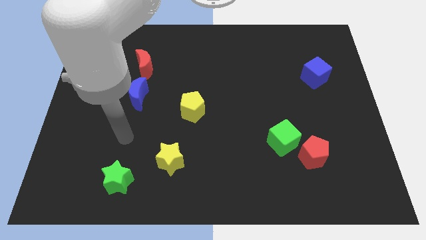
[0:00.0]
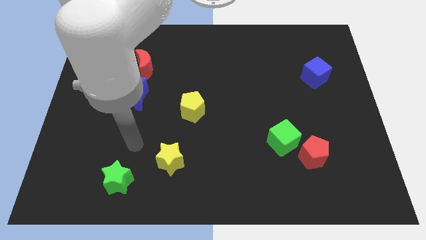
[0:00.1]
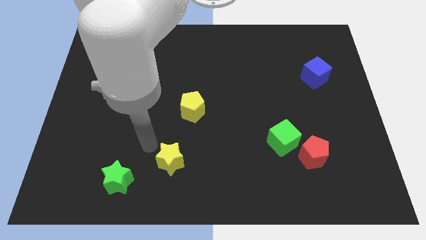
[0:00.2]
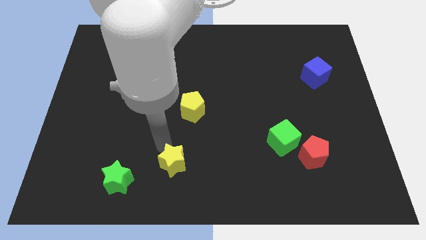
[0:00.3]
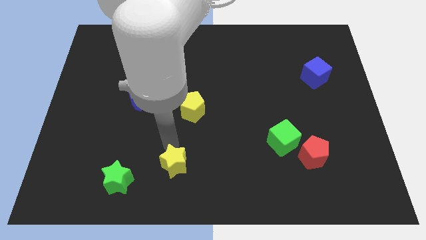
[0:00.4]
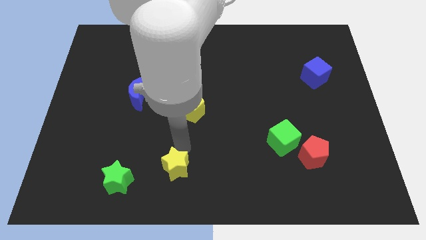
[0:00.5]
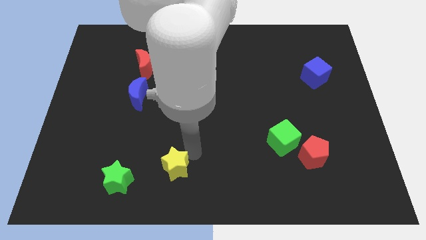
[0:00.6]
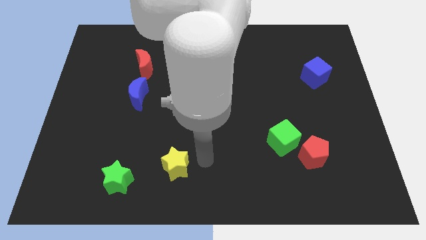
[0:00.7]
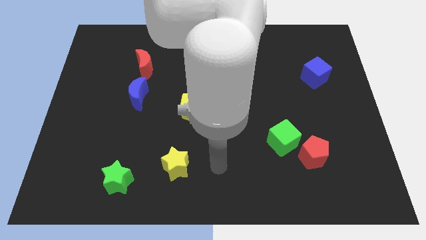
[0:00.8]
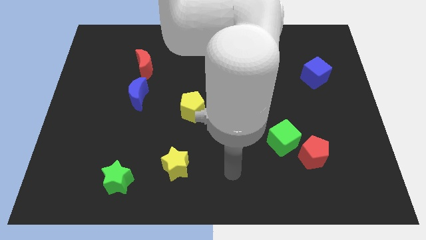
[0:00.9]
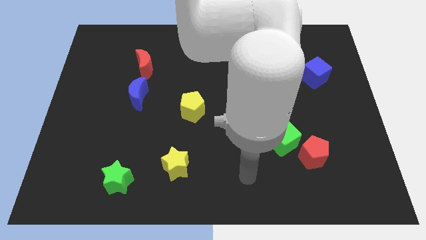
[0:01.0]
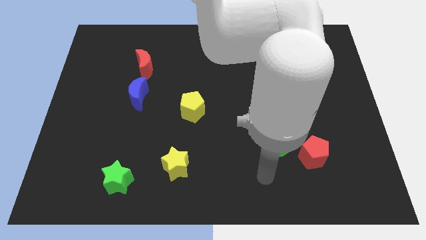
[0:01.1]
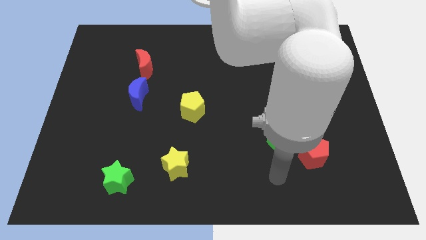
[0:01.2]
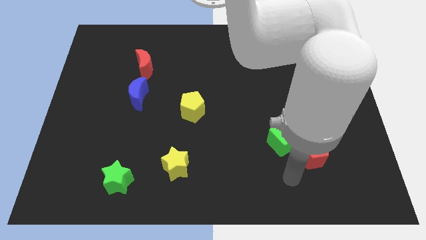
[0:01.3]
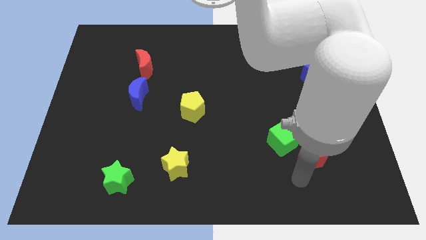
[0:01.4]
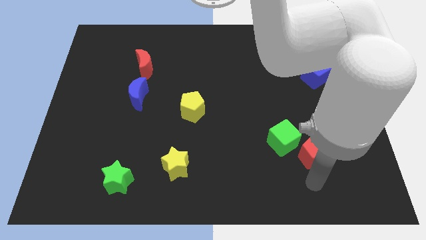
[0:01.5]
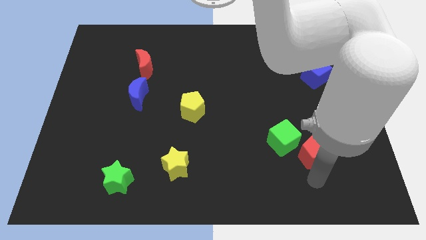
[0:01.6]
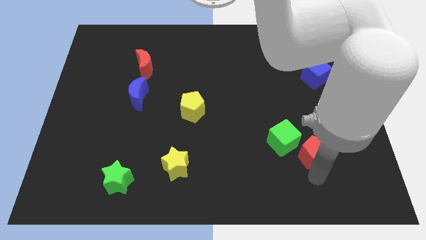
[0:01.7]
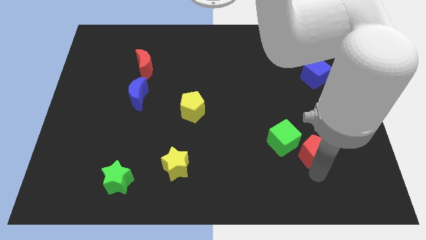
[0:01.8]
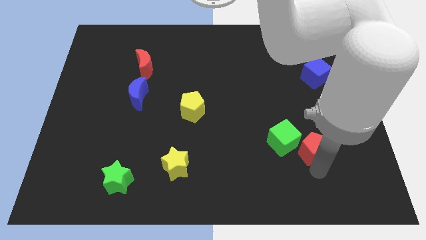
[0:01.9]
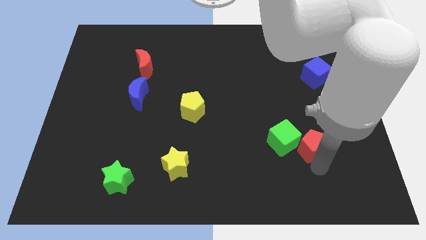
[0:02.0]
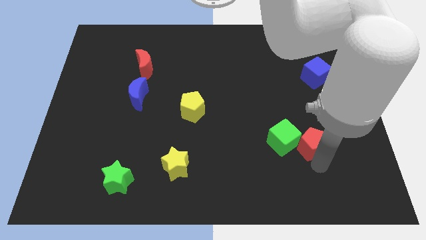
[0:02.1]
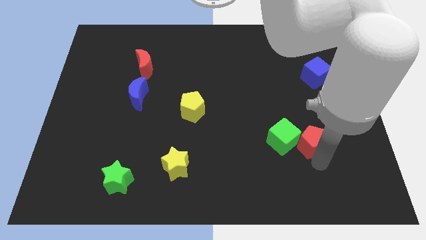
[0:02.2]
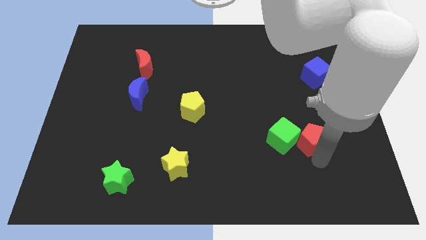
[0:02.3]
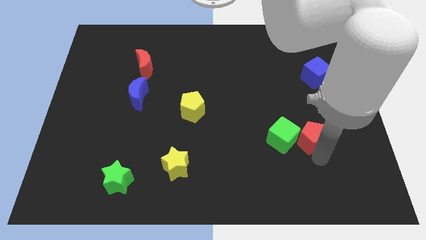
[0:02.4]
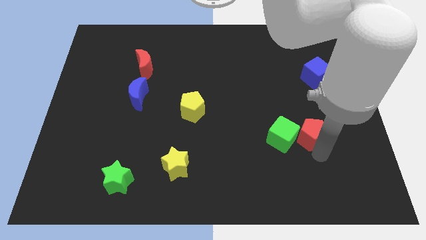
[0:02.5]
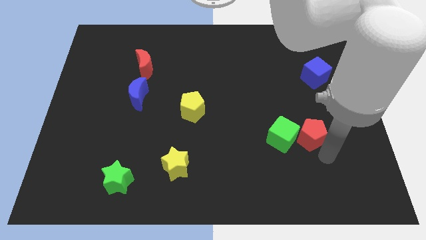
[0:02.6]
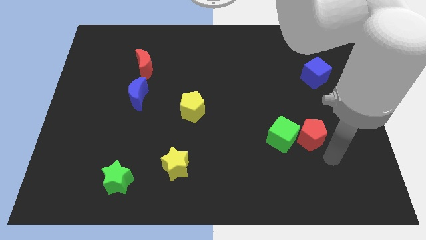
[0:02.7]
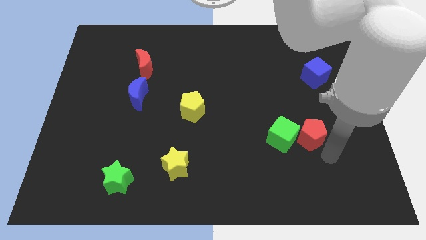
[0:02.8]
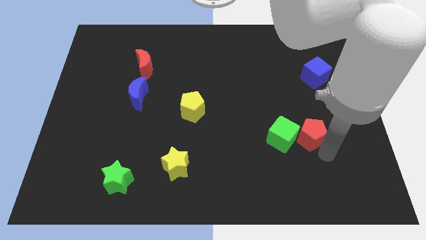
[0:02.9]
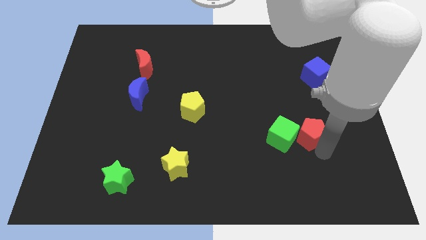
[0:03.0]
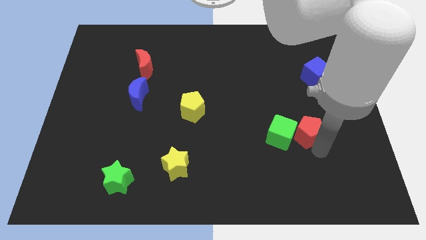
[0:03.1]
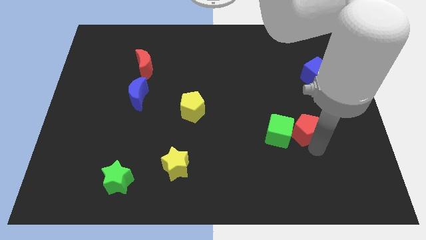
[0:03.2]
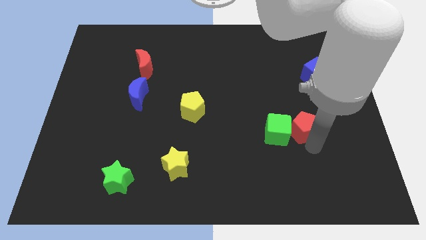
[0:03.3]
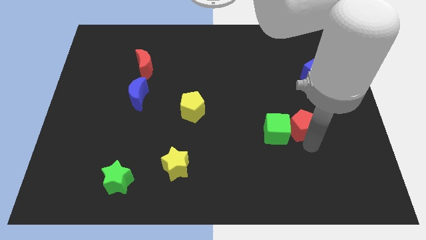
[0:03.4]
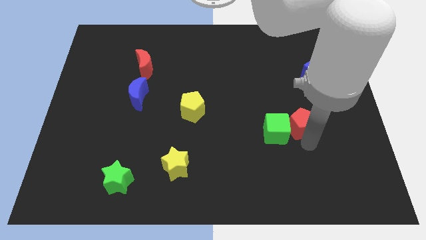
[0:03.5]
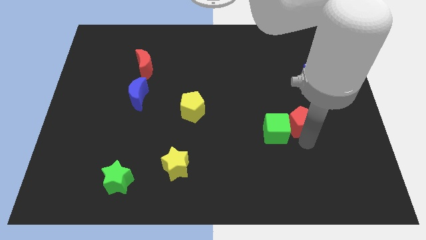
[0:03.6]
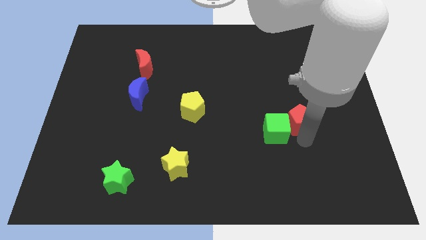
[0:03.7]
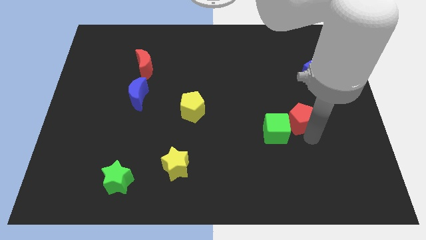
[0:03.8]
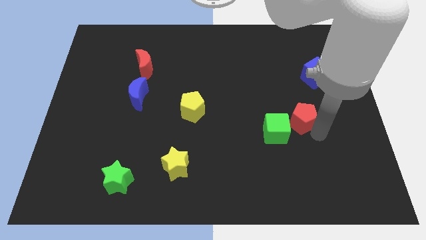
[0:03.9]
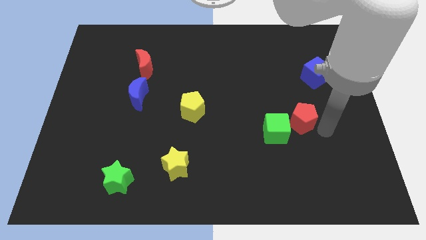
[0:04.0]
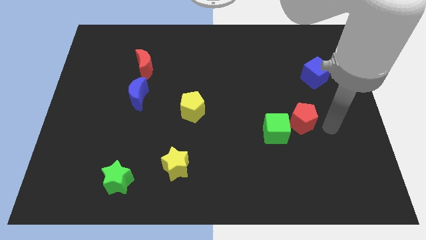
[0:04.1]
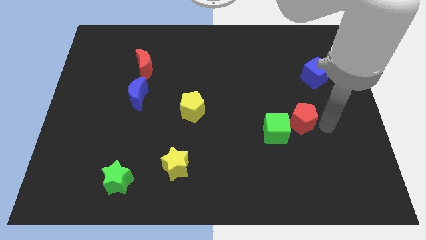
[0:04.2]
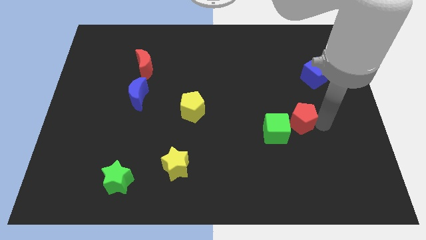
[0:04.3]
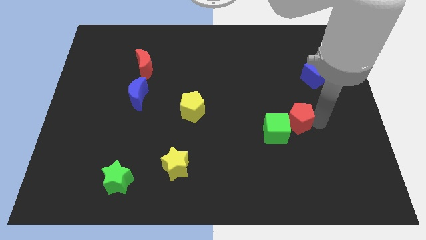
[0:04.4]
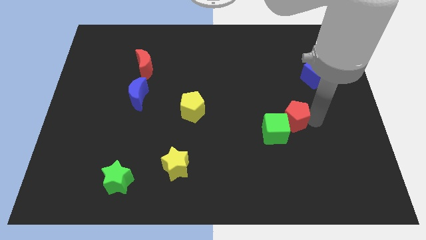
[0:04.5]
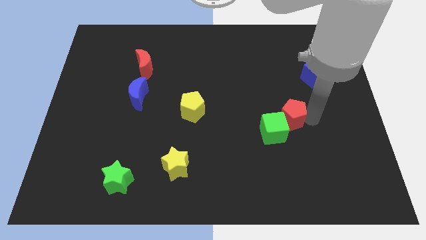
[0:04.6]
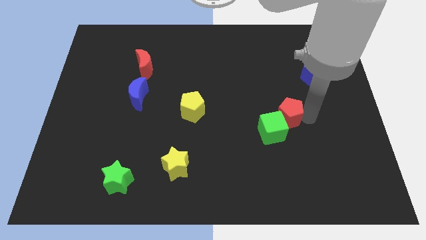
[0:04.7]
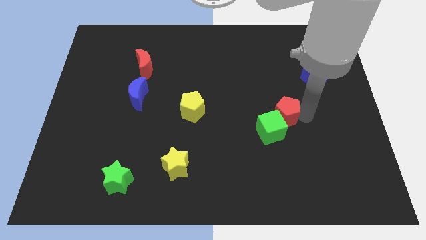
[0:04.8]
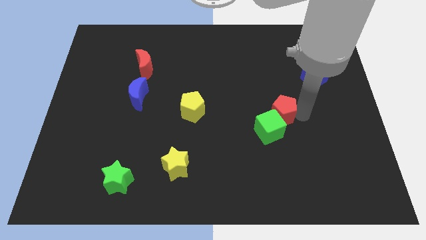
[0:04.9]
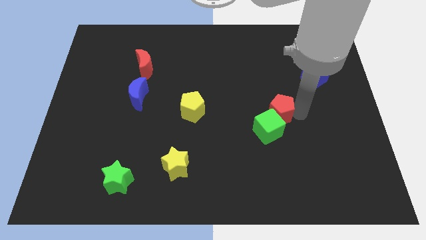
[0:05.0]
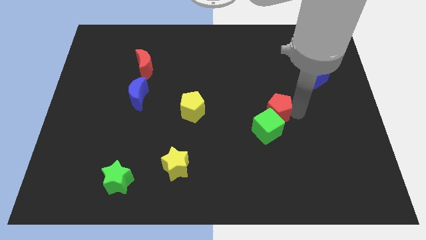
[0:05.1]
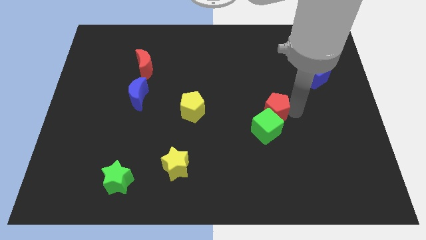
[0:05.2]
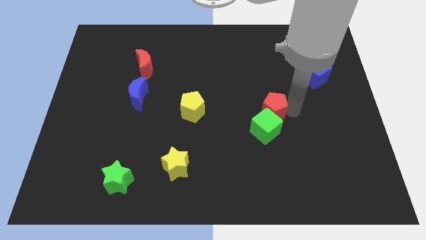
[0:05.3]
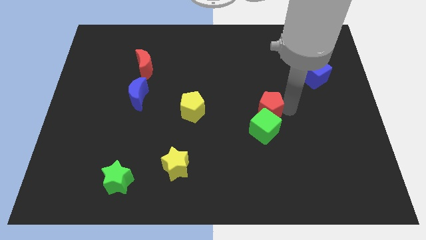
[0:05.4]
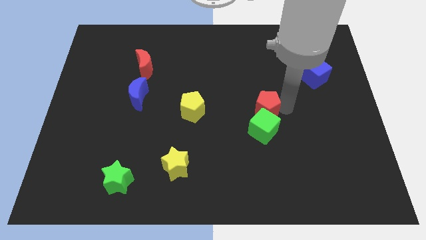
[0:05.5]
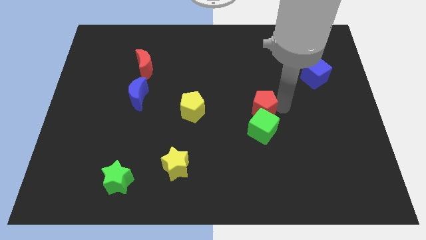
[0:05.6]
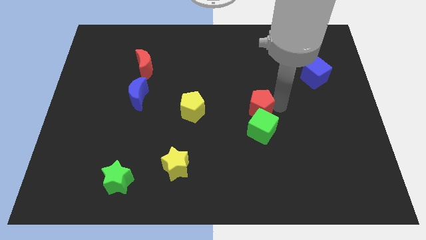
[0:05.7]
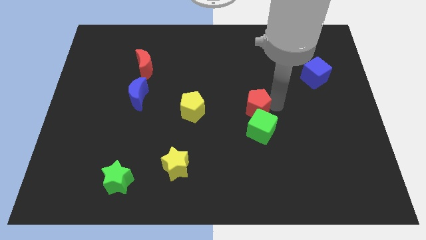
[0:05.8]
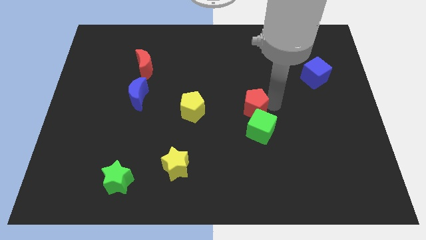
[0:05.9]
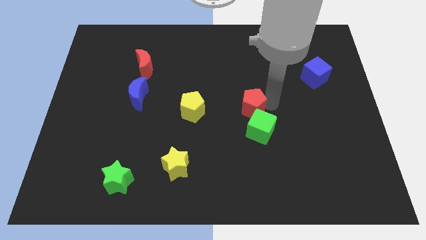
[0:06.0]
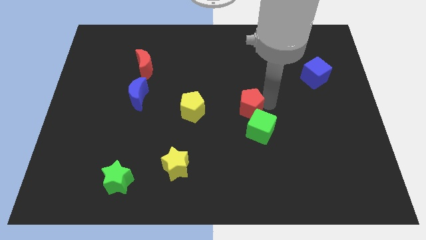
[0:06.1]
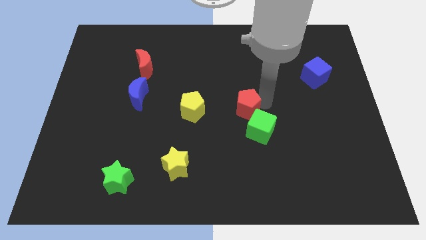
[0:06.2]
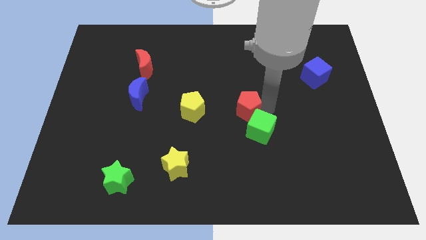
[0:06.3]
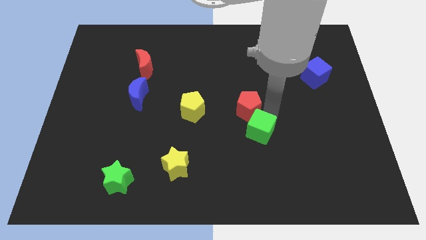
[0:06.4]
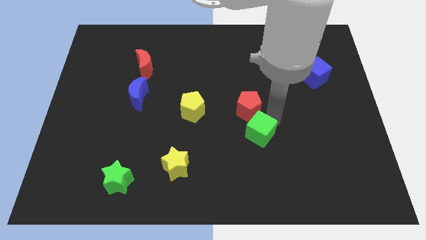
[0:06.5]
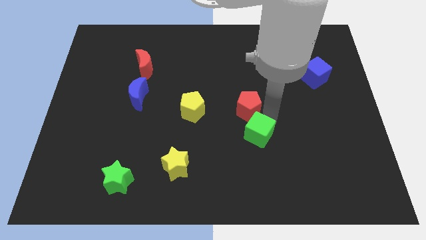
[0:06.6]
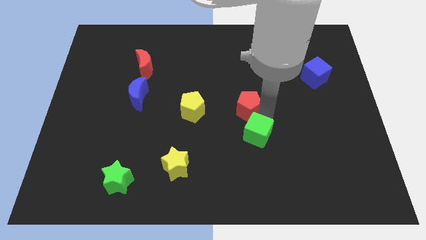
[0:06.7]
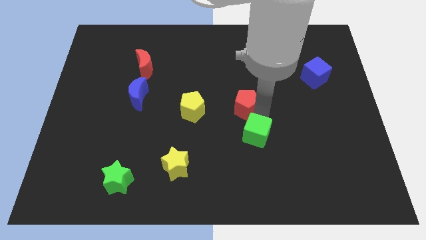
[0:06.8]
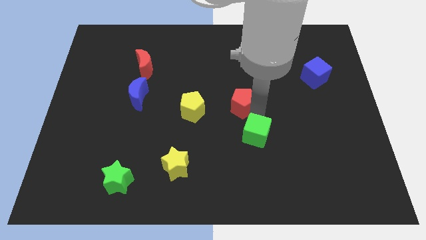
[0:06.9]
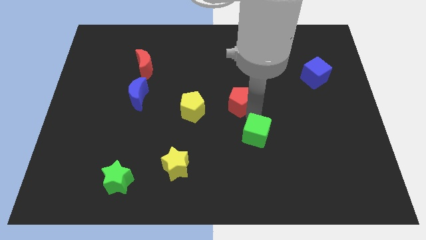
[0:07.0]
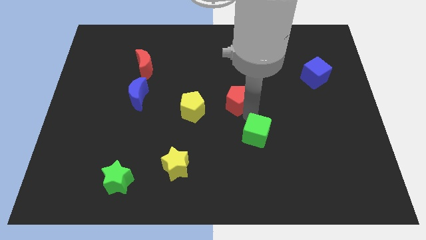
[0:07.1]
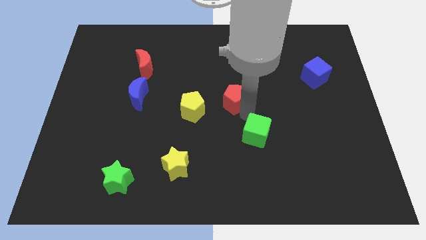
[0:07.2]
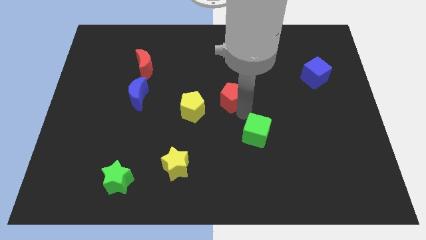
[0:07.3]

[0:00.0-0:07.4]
push the red pentagon to the top right side of the yellow pentagon
